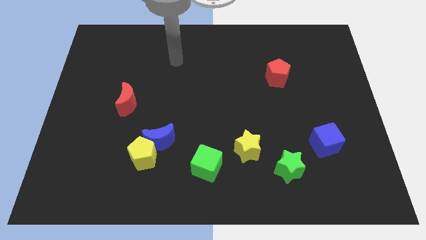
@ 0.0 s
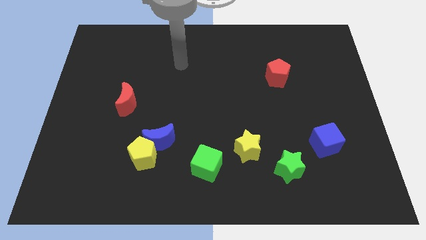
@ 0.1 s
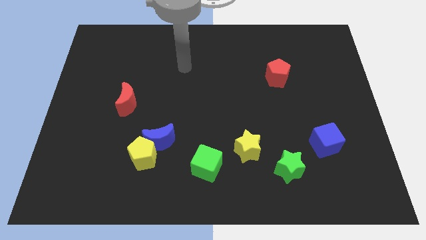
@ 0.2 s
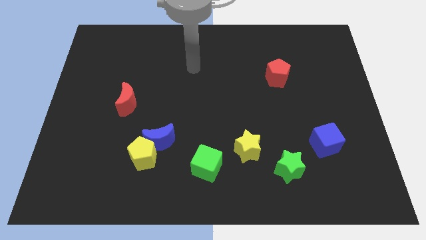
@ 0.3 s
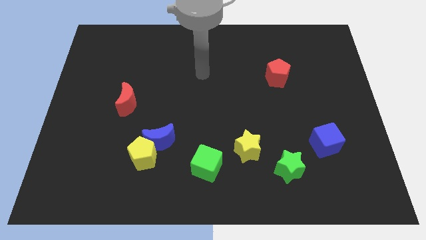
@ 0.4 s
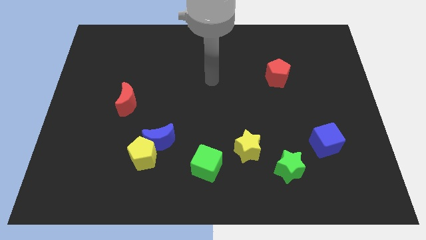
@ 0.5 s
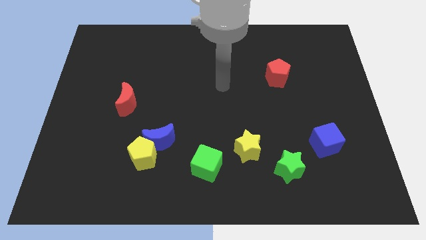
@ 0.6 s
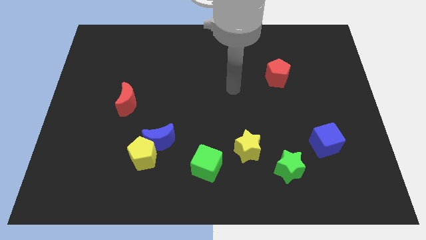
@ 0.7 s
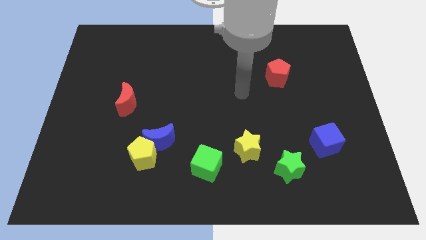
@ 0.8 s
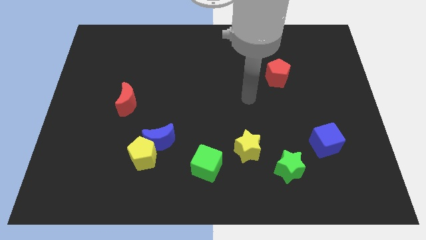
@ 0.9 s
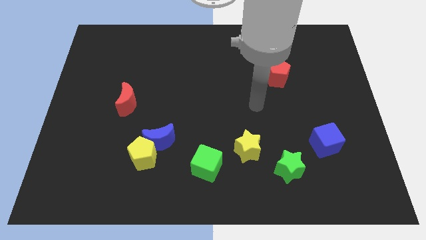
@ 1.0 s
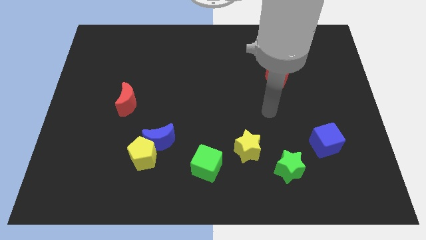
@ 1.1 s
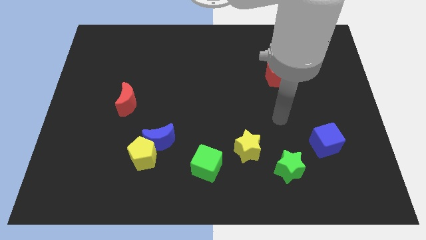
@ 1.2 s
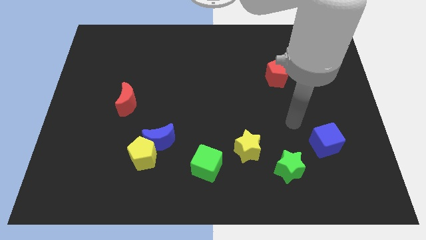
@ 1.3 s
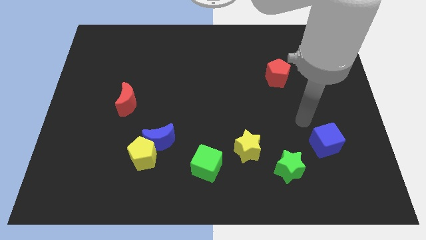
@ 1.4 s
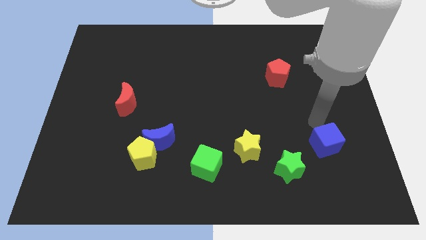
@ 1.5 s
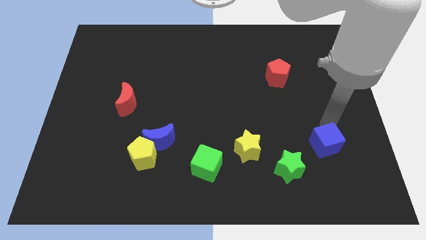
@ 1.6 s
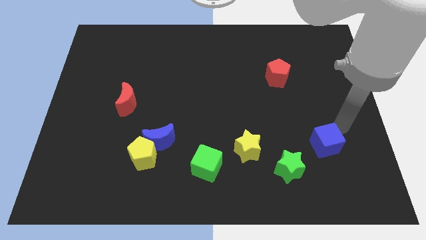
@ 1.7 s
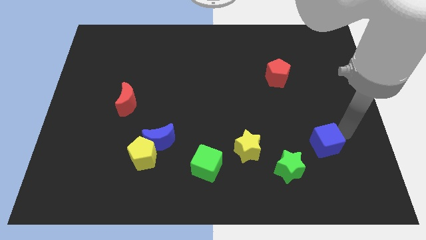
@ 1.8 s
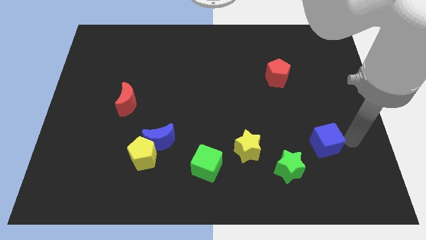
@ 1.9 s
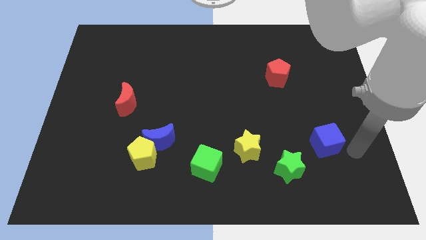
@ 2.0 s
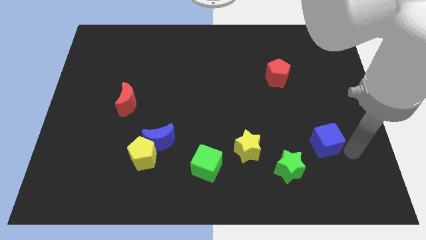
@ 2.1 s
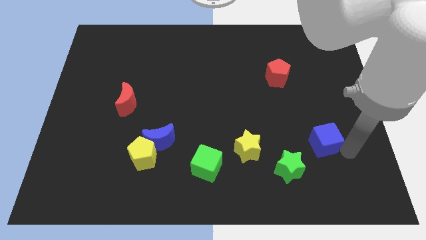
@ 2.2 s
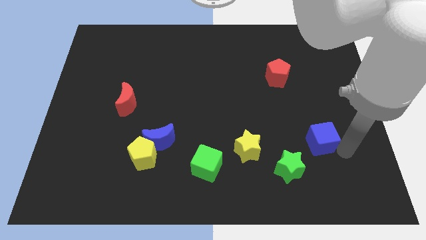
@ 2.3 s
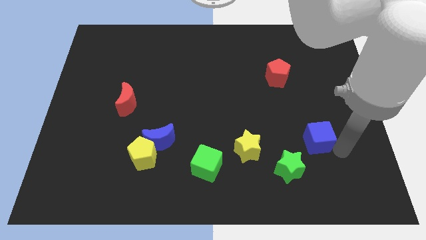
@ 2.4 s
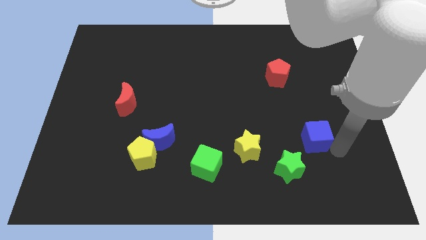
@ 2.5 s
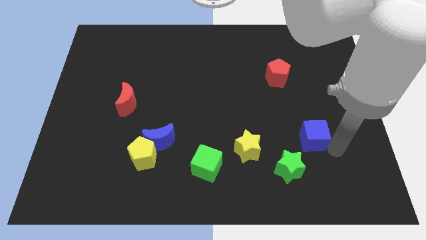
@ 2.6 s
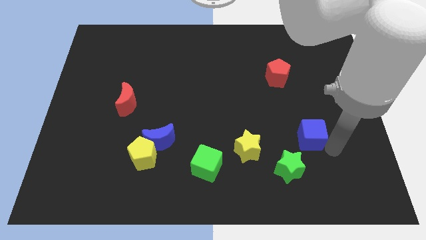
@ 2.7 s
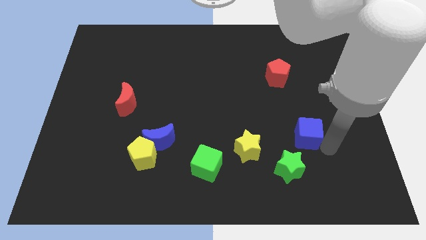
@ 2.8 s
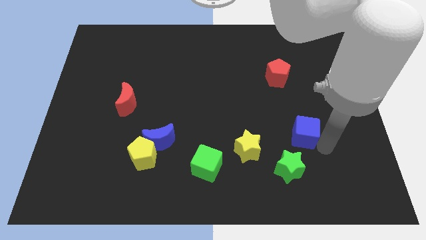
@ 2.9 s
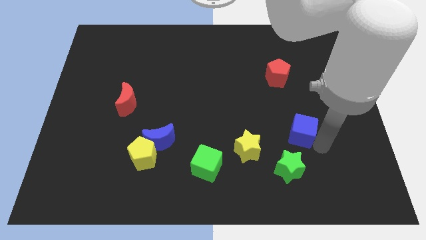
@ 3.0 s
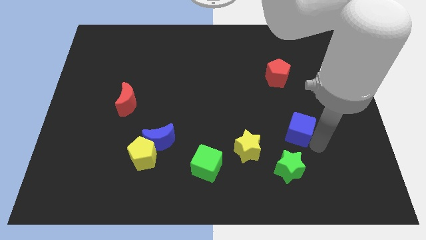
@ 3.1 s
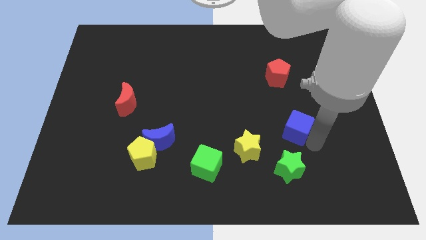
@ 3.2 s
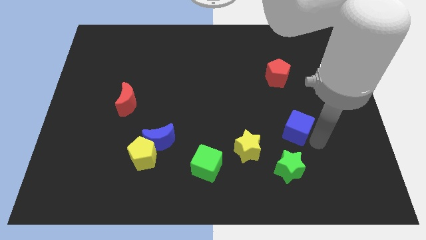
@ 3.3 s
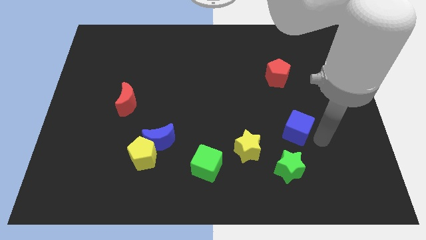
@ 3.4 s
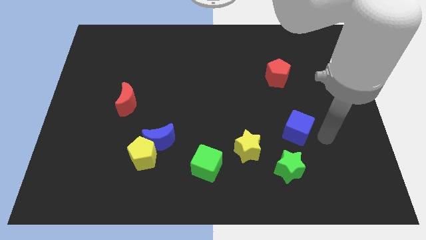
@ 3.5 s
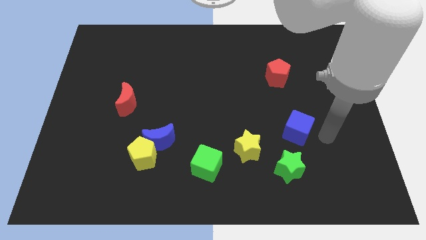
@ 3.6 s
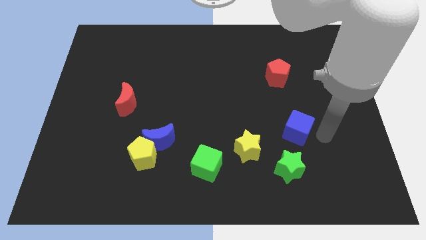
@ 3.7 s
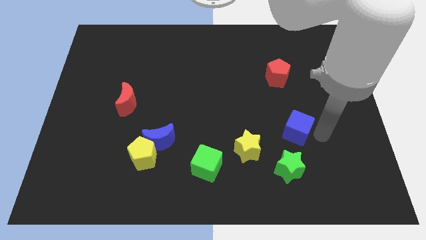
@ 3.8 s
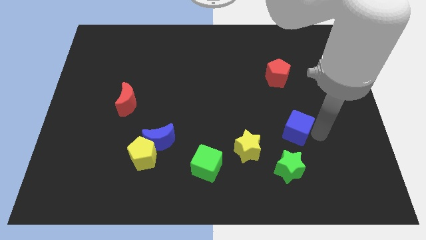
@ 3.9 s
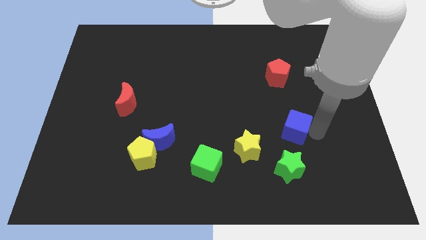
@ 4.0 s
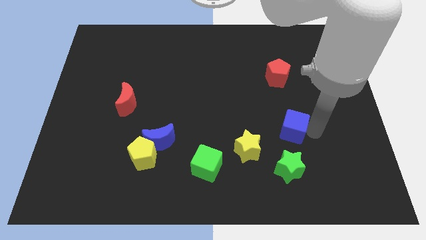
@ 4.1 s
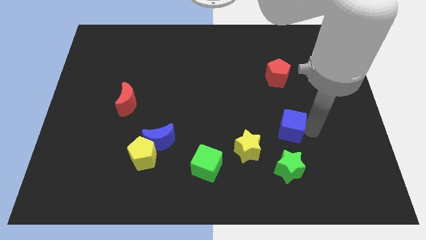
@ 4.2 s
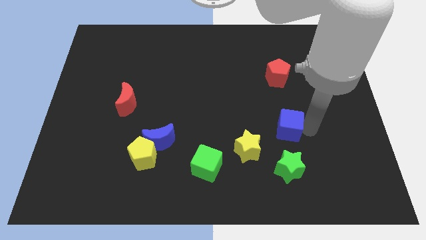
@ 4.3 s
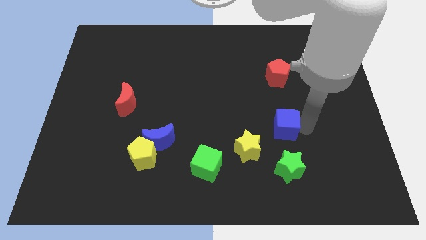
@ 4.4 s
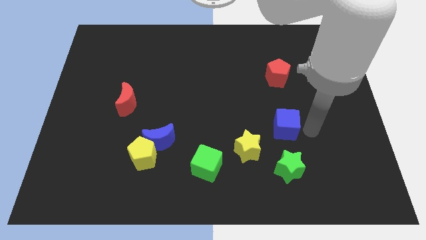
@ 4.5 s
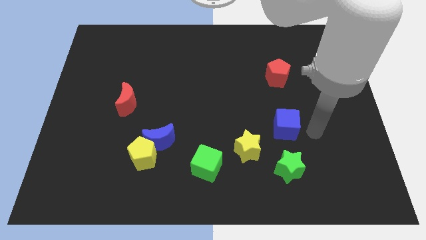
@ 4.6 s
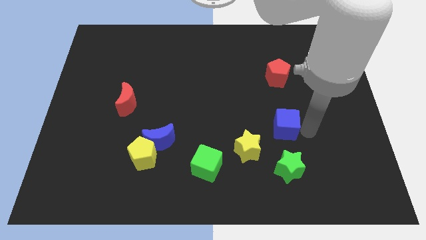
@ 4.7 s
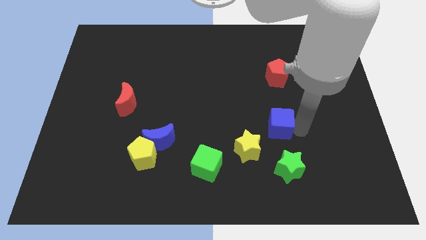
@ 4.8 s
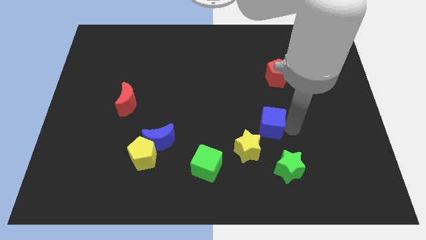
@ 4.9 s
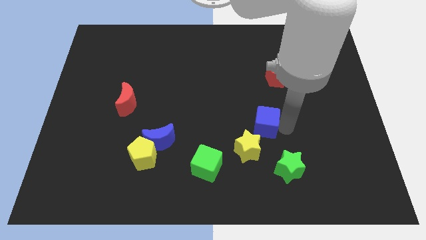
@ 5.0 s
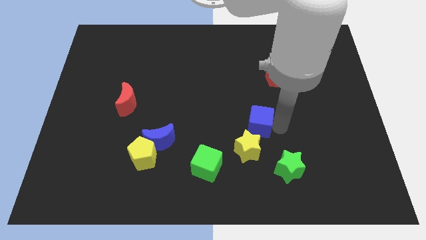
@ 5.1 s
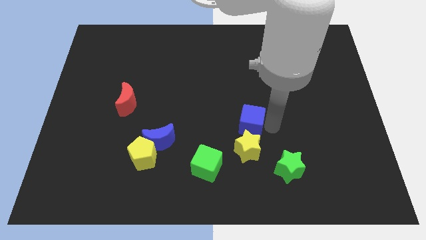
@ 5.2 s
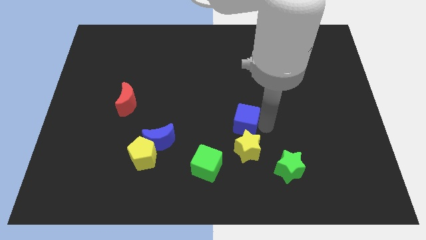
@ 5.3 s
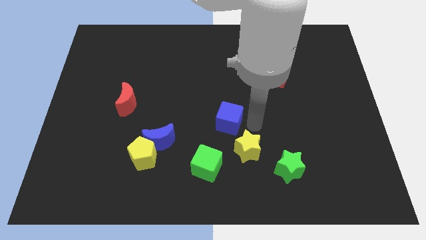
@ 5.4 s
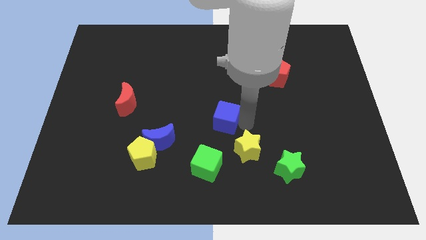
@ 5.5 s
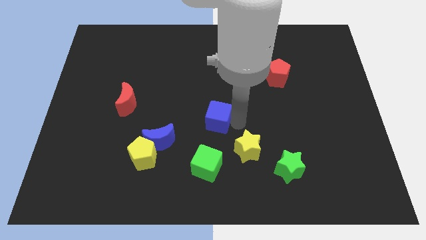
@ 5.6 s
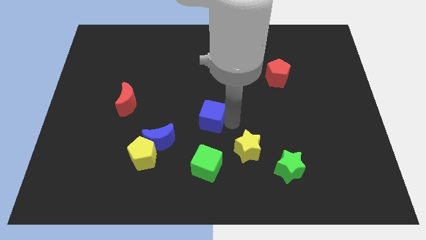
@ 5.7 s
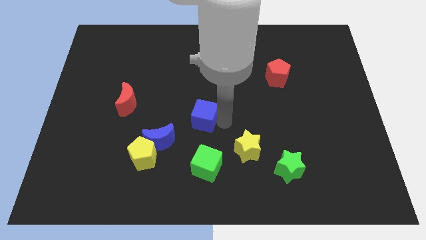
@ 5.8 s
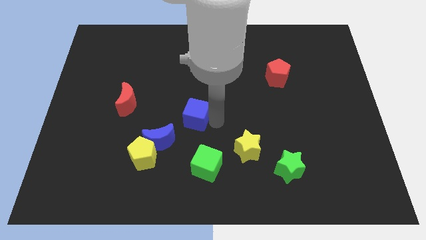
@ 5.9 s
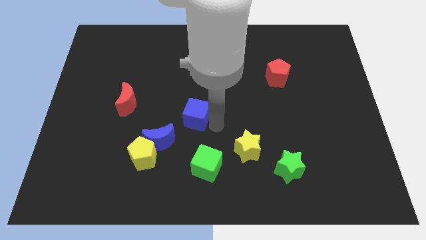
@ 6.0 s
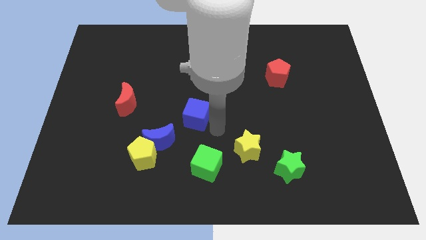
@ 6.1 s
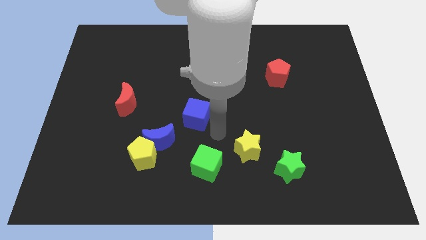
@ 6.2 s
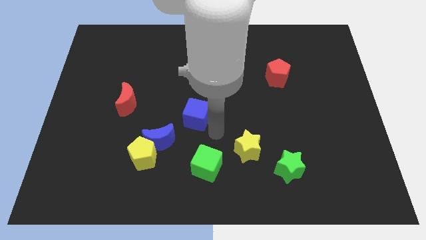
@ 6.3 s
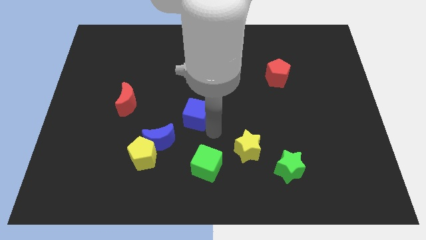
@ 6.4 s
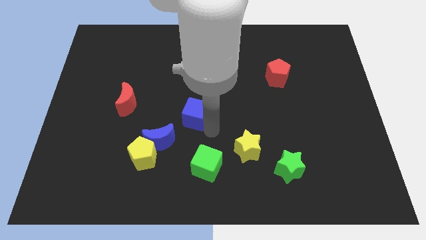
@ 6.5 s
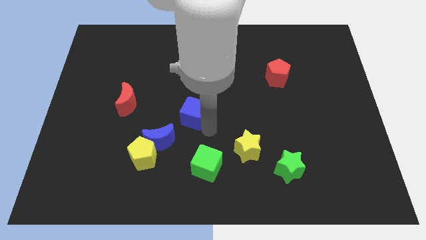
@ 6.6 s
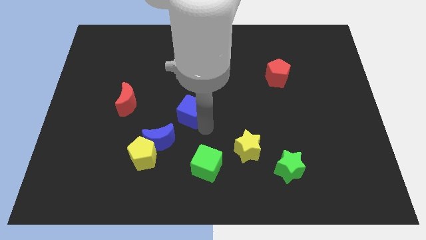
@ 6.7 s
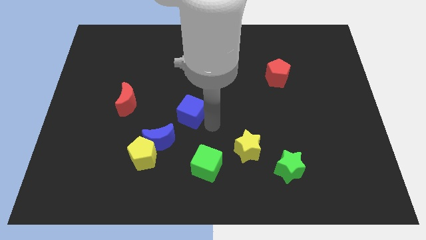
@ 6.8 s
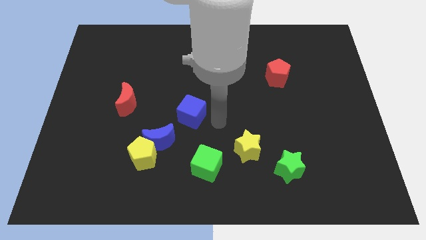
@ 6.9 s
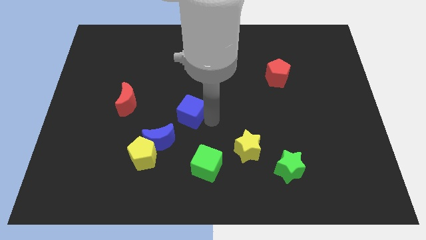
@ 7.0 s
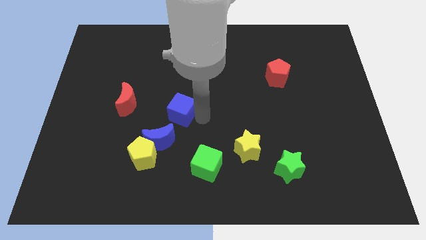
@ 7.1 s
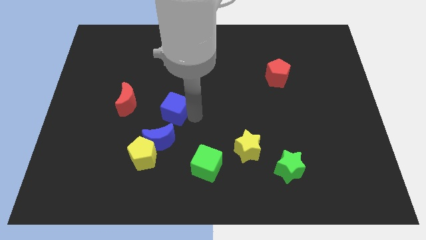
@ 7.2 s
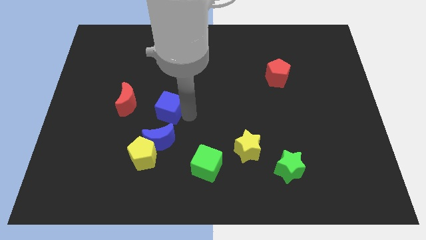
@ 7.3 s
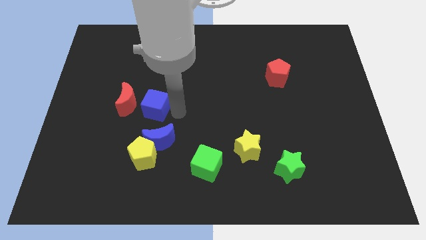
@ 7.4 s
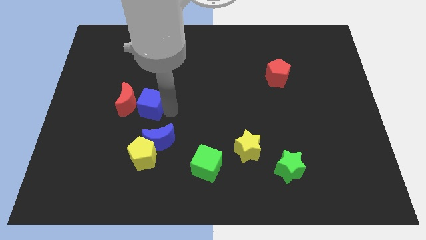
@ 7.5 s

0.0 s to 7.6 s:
move the blue cube next to the red moon
